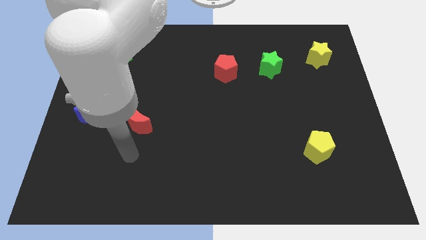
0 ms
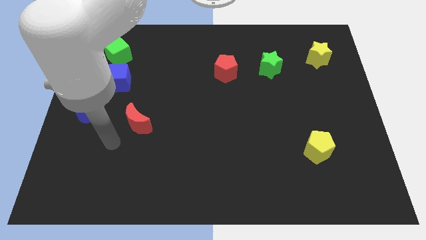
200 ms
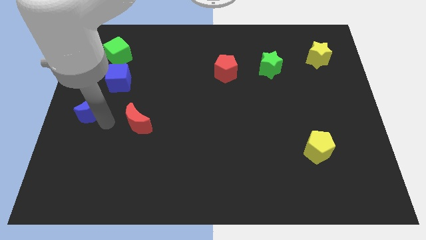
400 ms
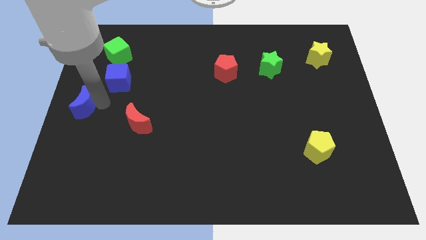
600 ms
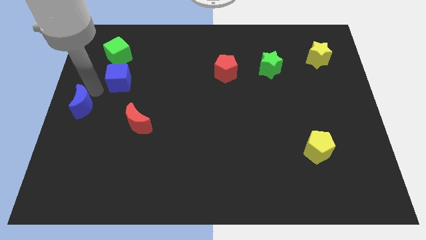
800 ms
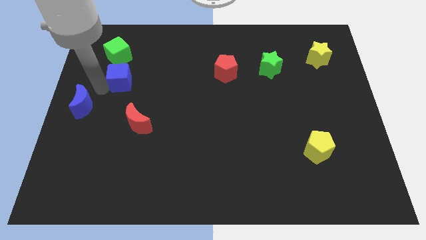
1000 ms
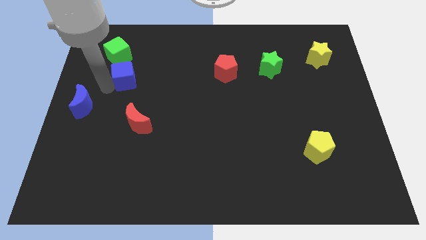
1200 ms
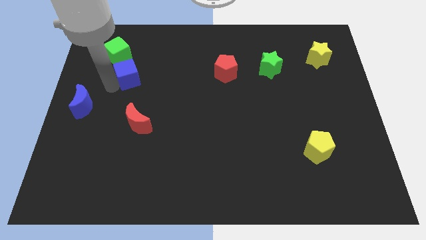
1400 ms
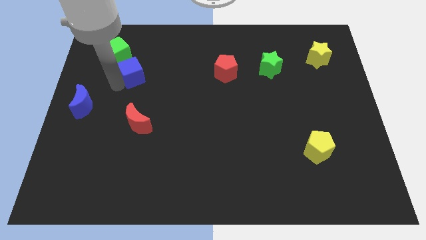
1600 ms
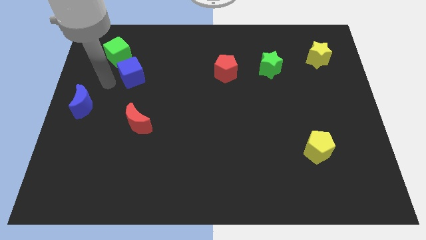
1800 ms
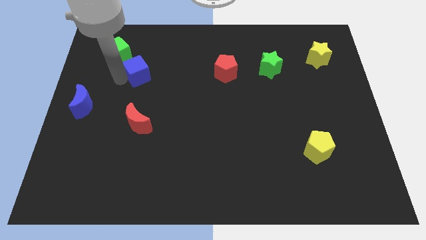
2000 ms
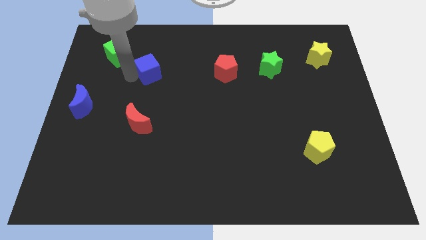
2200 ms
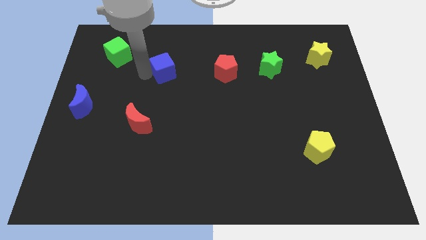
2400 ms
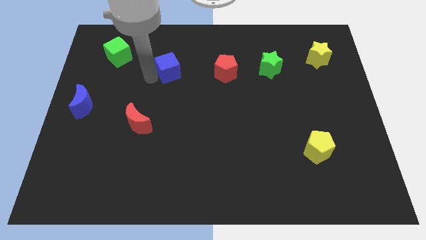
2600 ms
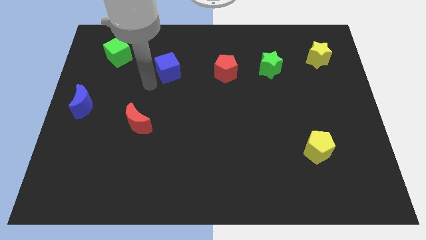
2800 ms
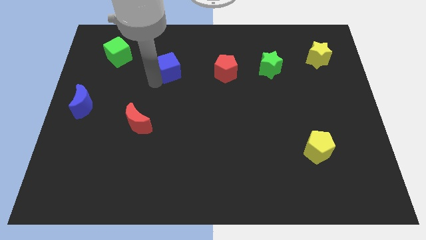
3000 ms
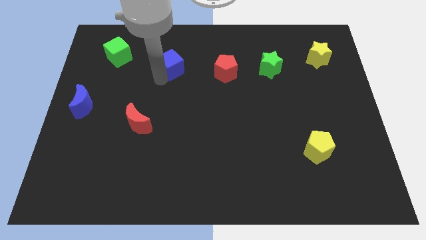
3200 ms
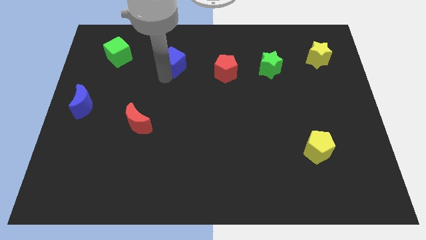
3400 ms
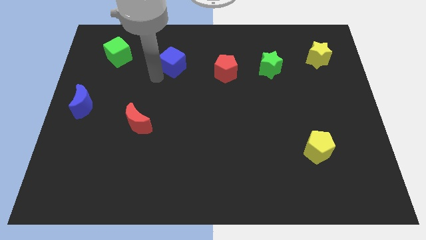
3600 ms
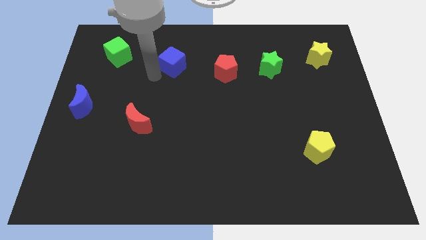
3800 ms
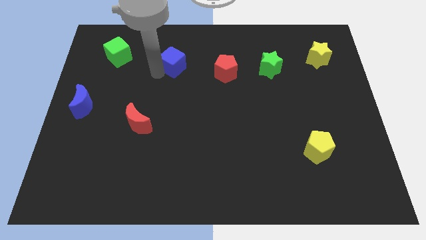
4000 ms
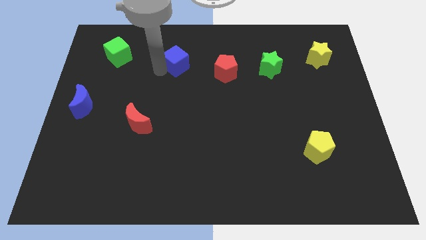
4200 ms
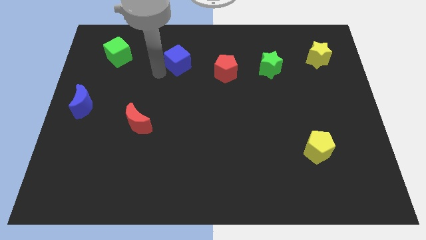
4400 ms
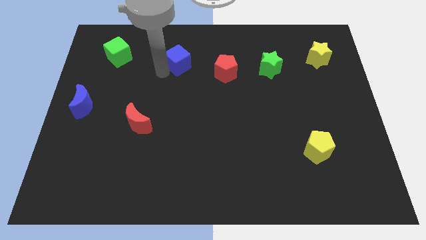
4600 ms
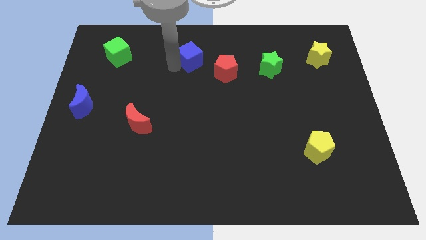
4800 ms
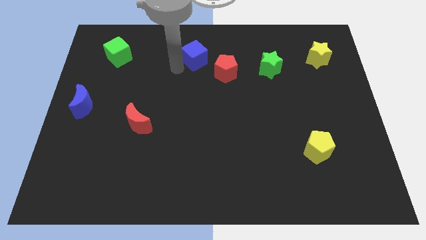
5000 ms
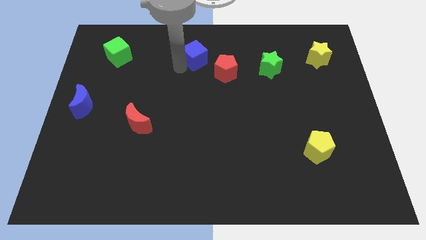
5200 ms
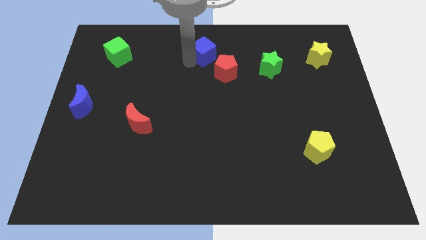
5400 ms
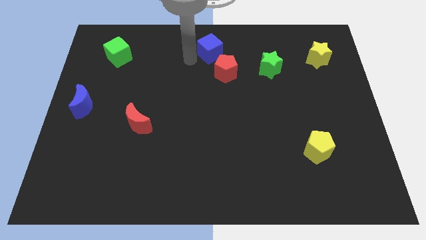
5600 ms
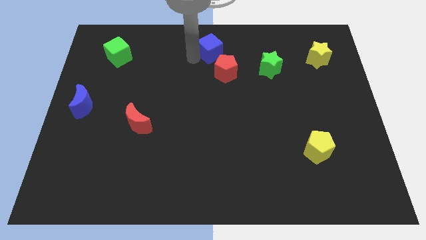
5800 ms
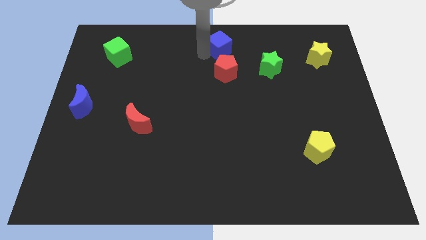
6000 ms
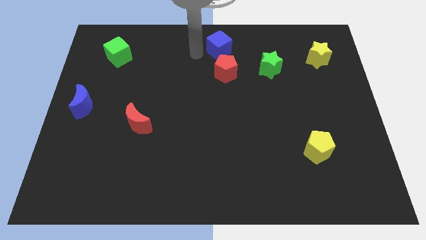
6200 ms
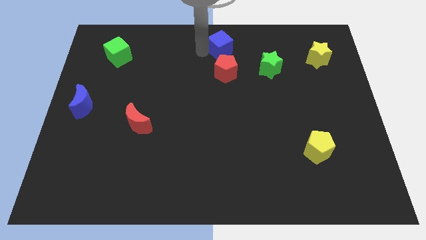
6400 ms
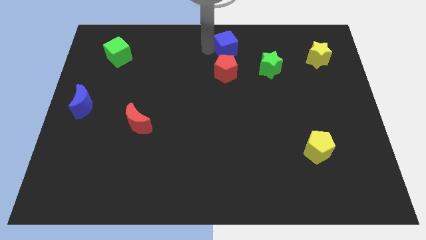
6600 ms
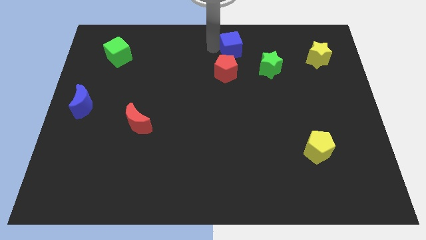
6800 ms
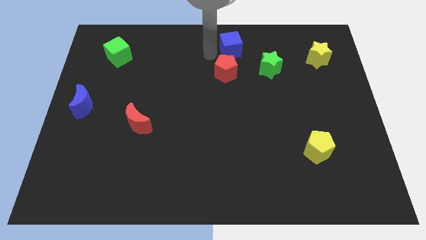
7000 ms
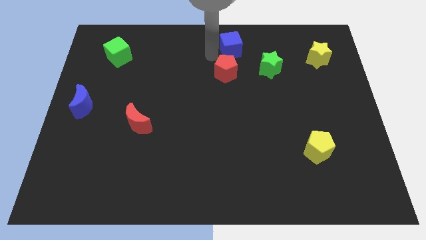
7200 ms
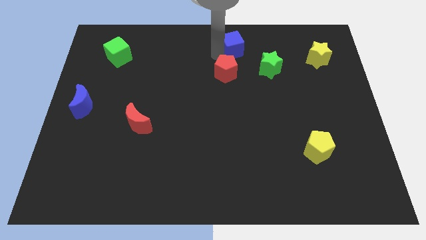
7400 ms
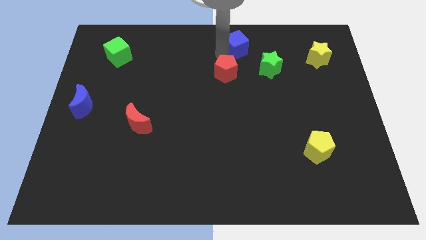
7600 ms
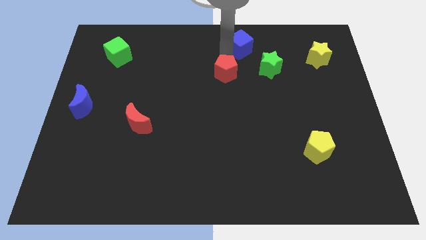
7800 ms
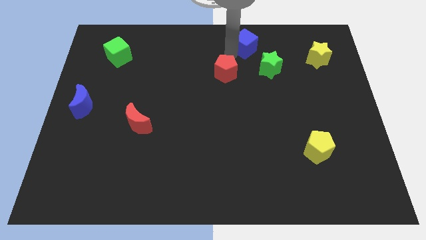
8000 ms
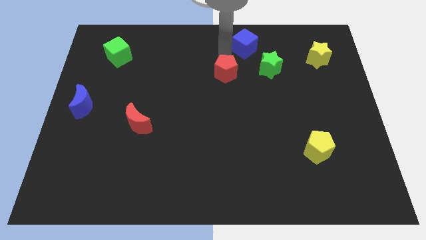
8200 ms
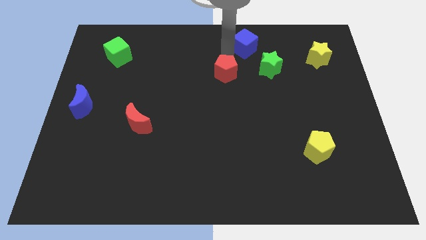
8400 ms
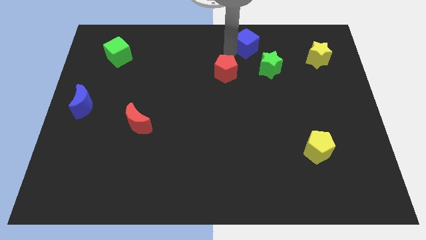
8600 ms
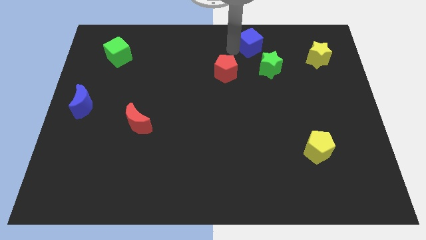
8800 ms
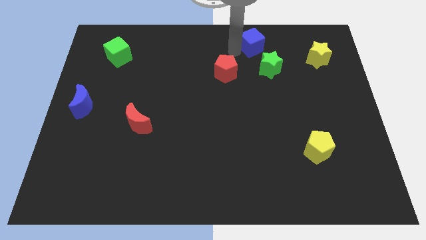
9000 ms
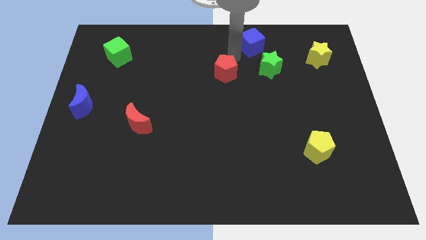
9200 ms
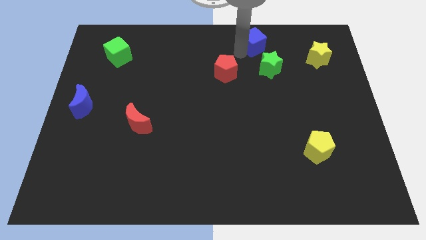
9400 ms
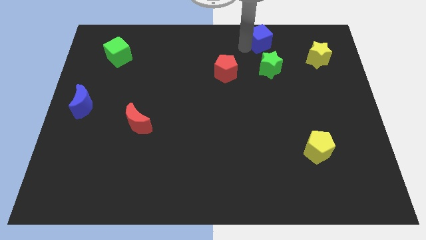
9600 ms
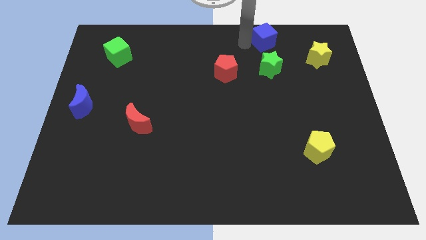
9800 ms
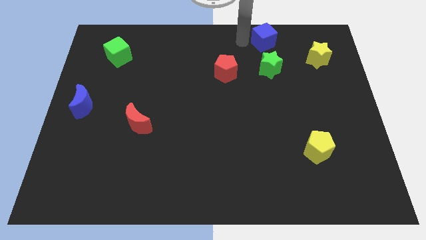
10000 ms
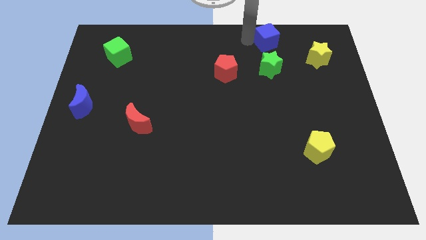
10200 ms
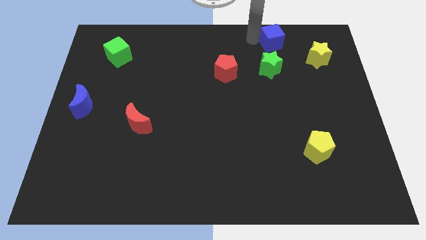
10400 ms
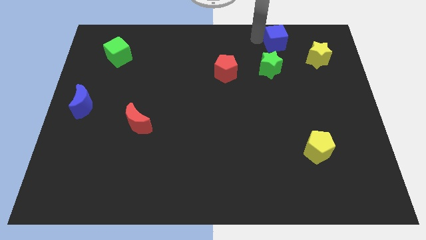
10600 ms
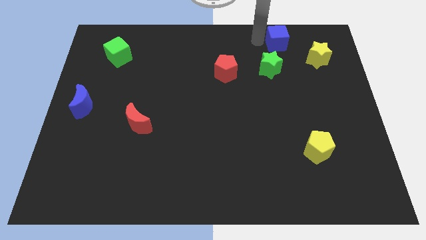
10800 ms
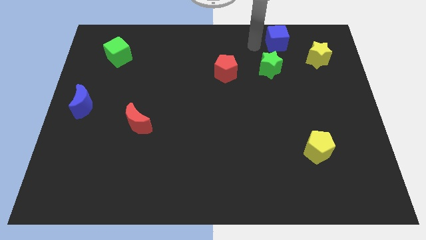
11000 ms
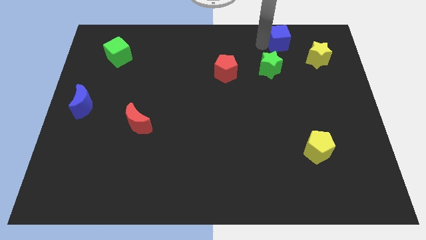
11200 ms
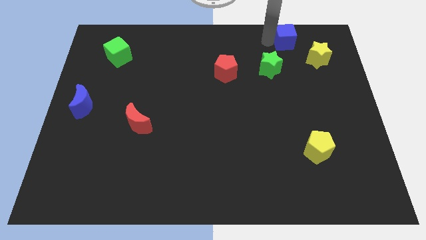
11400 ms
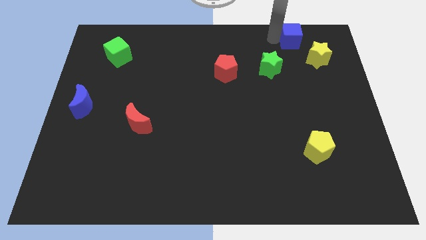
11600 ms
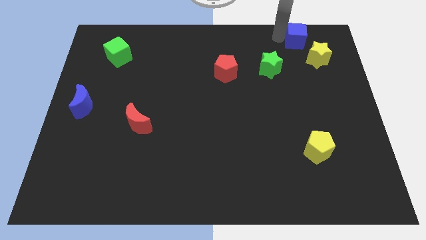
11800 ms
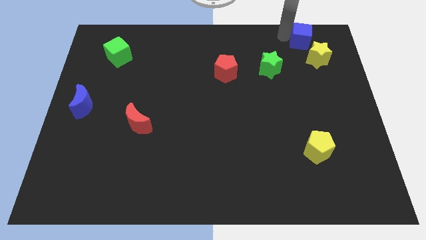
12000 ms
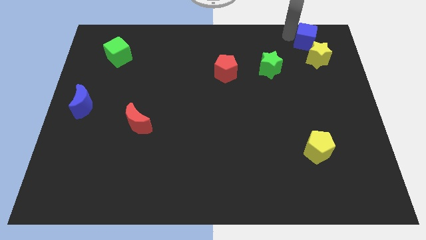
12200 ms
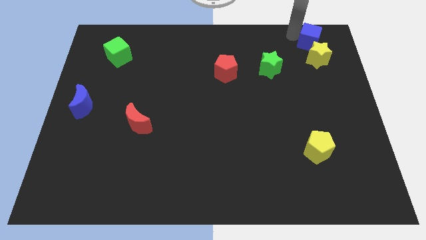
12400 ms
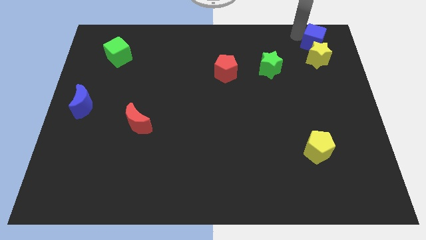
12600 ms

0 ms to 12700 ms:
push the blue cube to the upper right corner

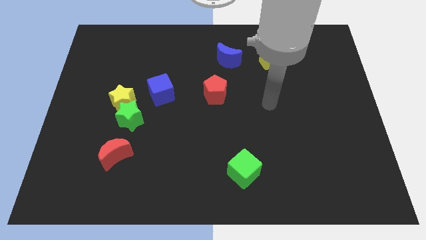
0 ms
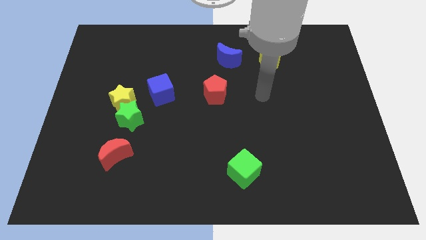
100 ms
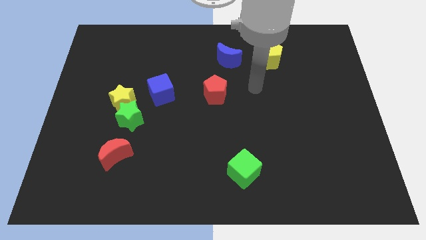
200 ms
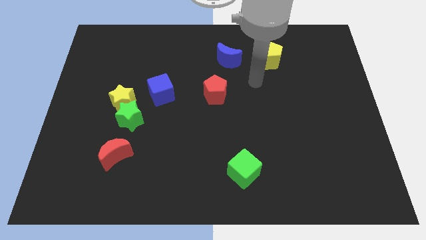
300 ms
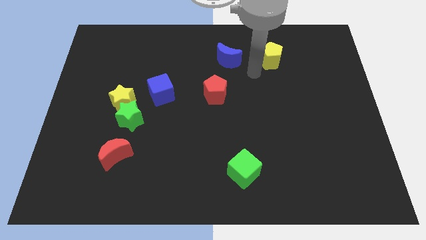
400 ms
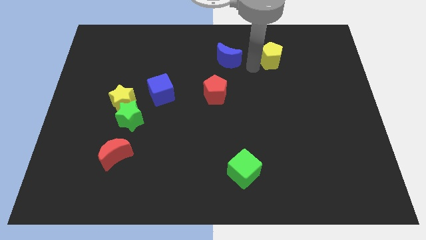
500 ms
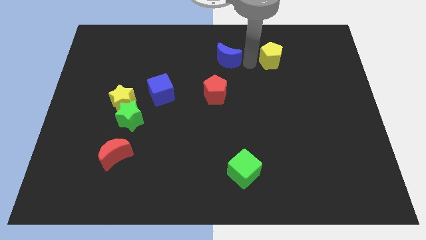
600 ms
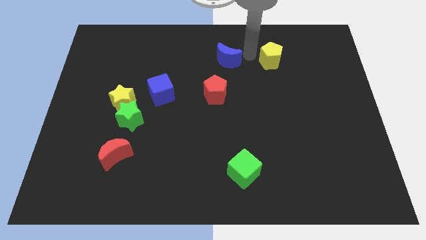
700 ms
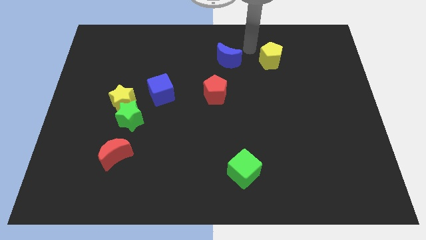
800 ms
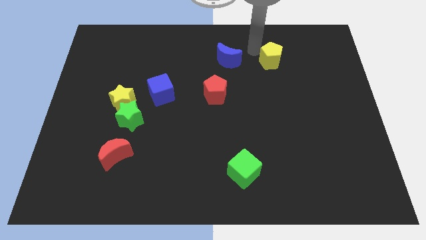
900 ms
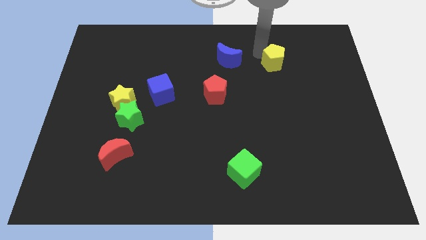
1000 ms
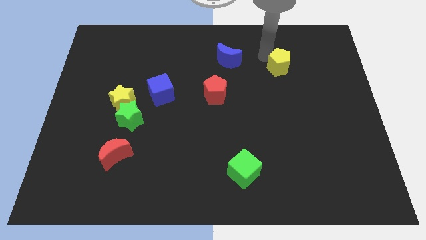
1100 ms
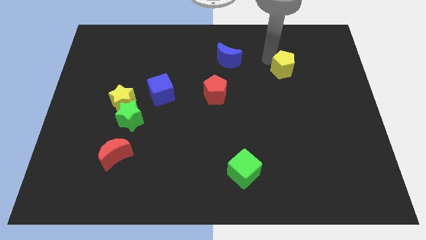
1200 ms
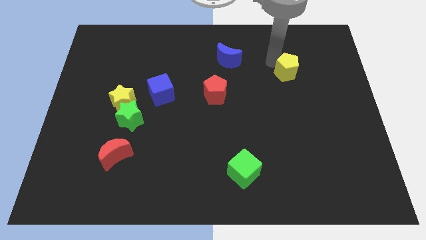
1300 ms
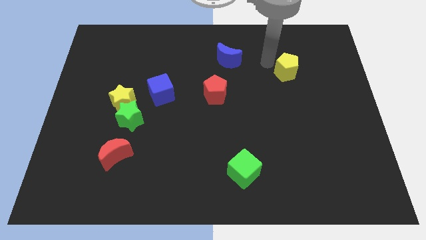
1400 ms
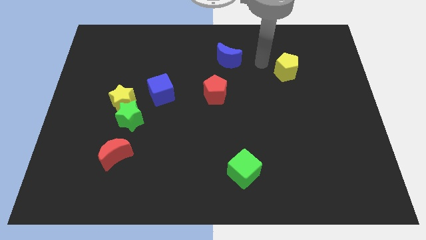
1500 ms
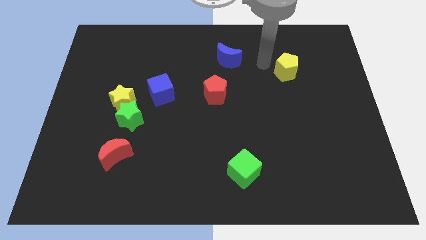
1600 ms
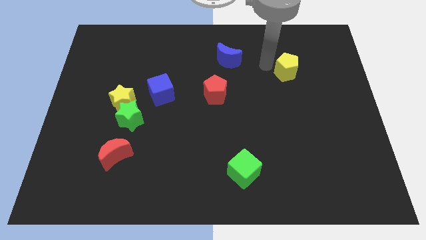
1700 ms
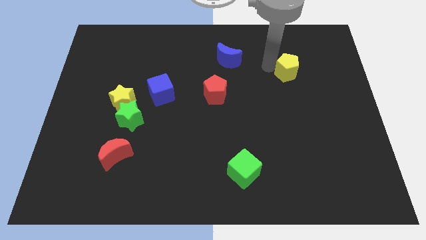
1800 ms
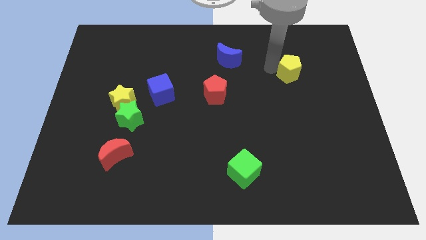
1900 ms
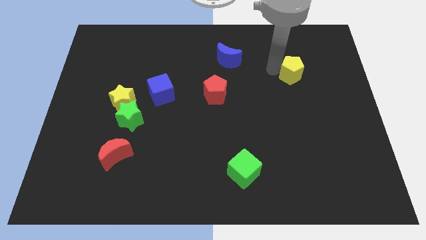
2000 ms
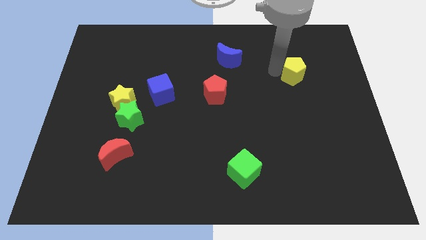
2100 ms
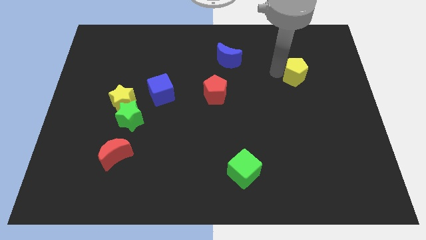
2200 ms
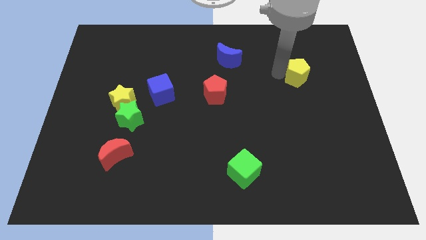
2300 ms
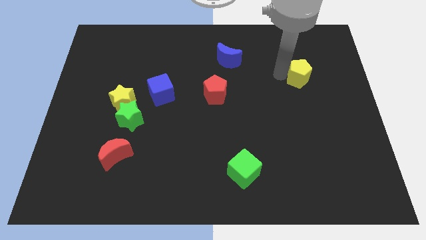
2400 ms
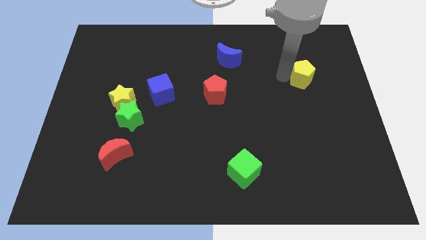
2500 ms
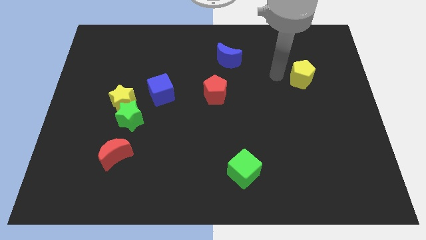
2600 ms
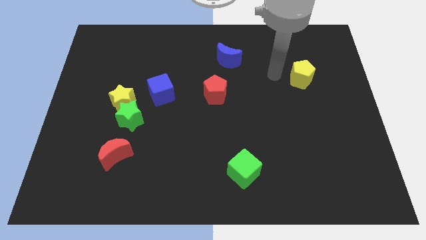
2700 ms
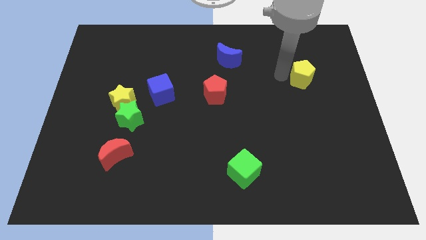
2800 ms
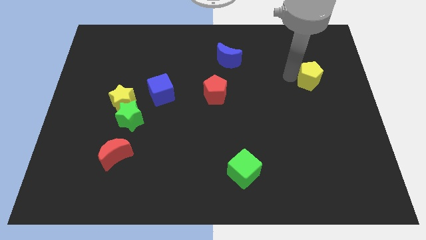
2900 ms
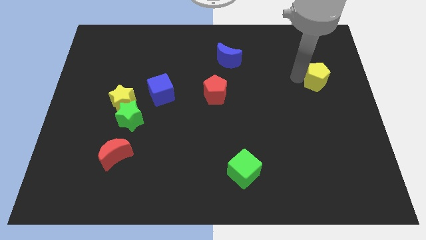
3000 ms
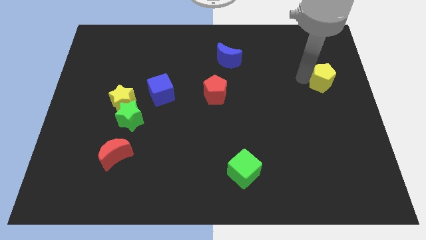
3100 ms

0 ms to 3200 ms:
slide the yellow pentagon to the right side
